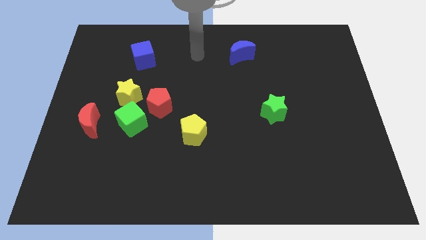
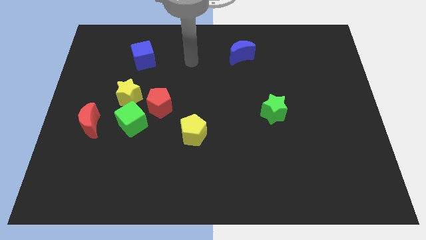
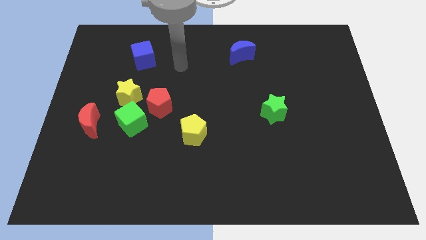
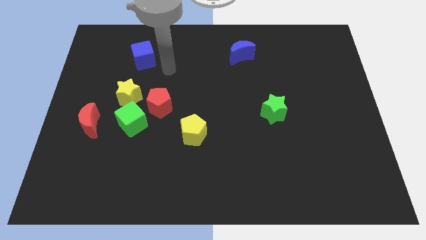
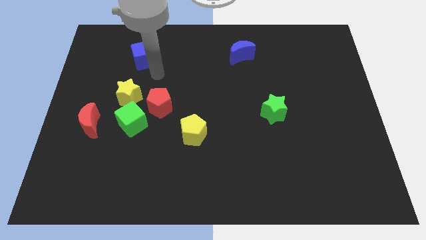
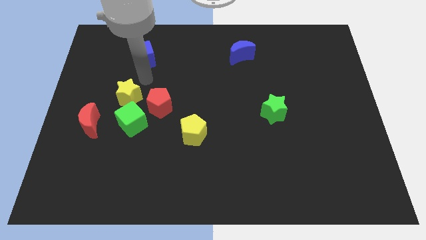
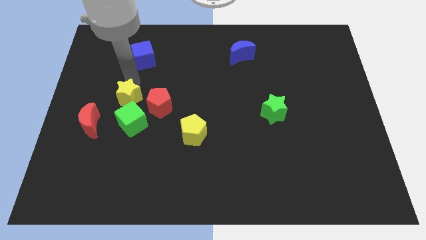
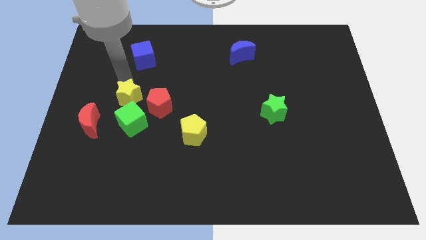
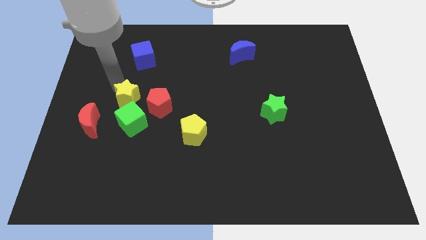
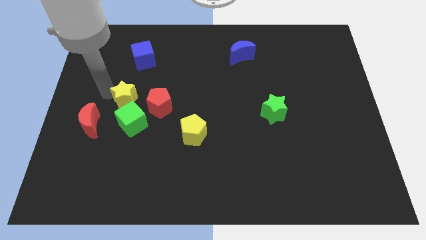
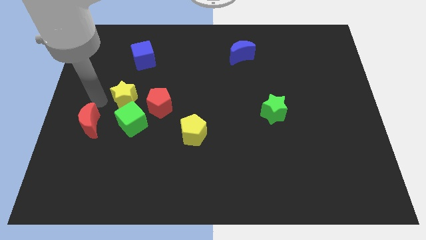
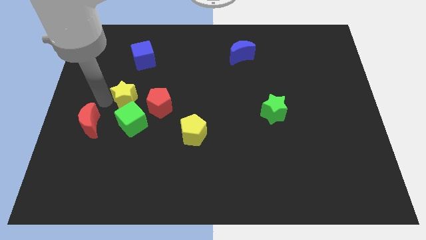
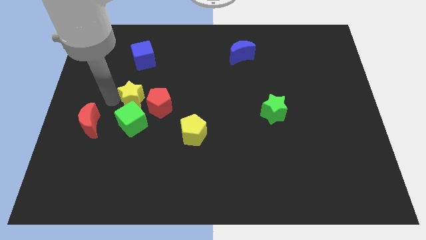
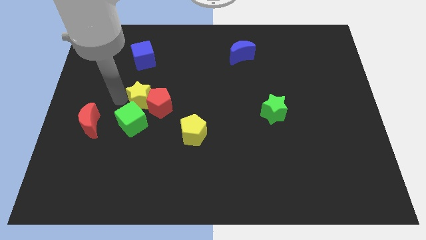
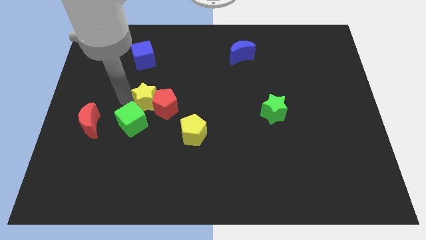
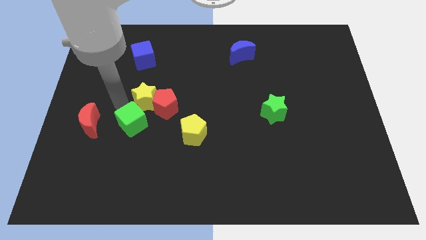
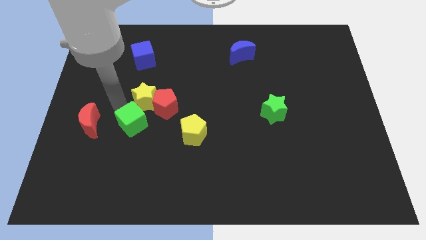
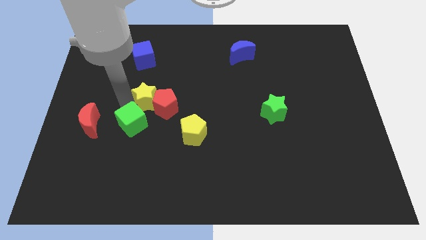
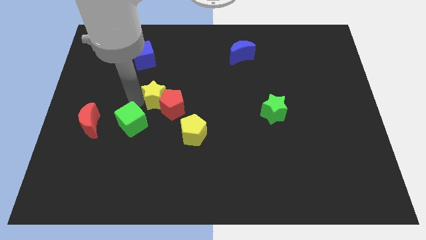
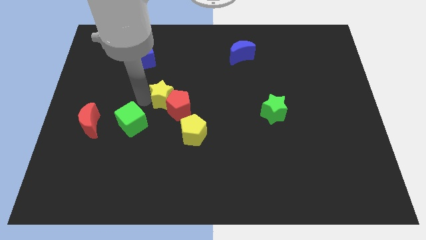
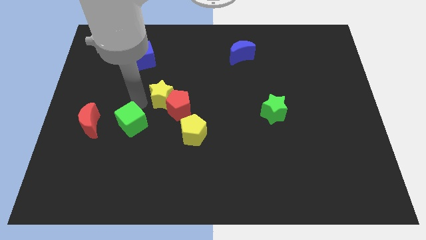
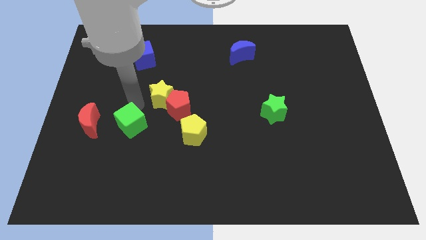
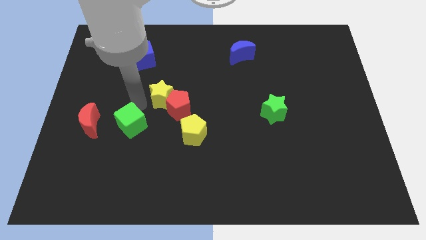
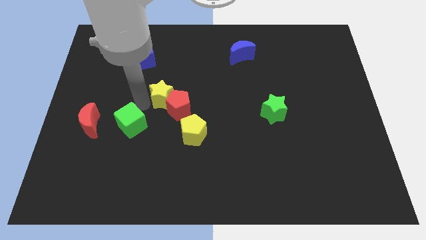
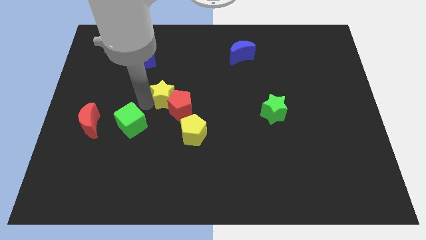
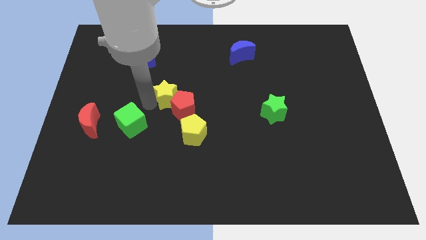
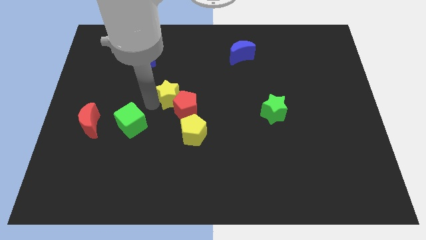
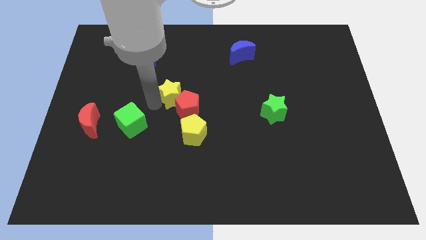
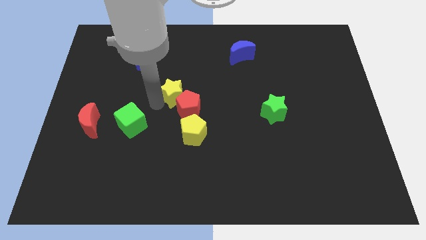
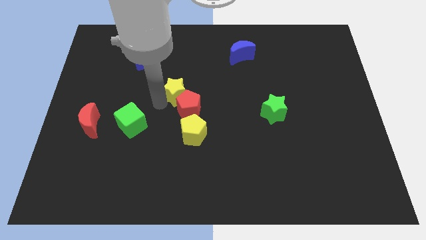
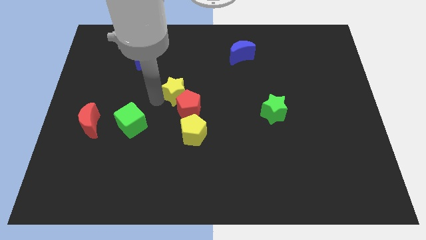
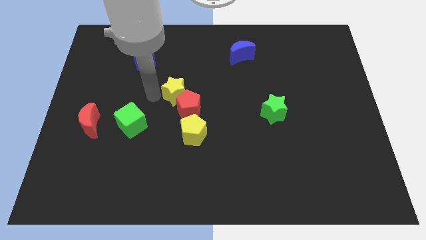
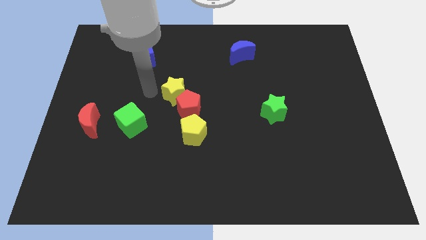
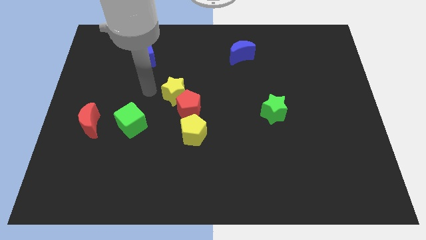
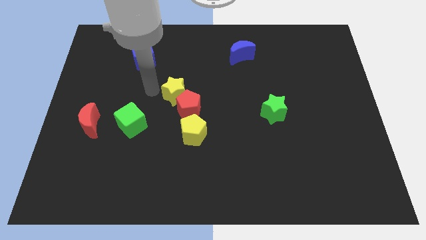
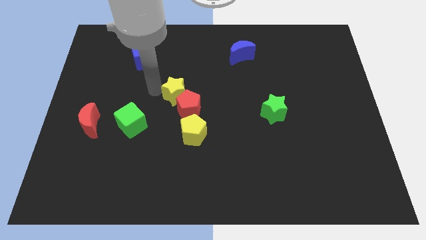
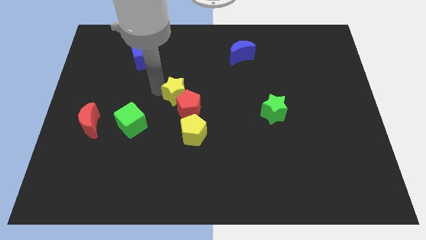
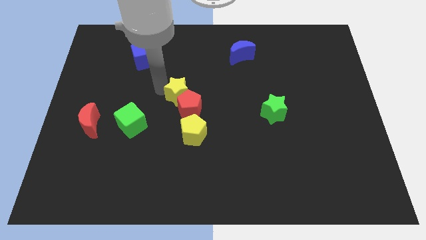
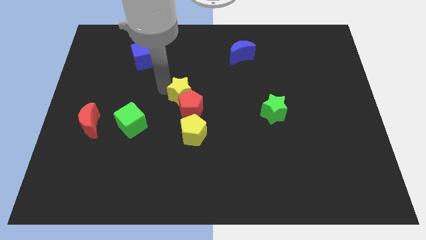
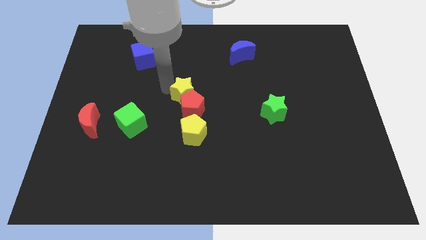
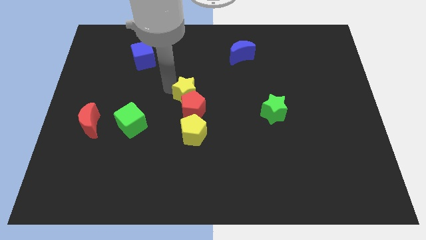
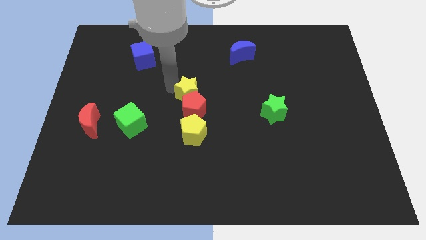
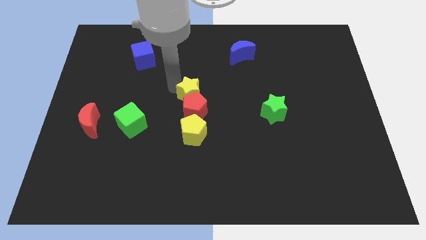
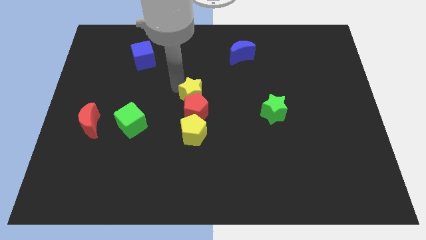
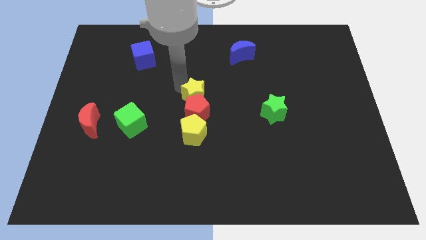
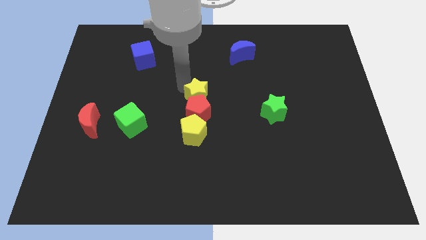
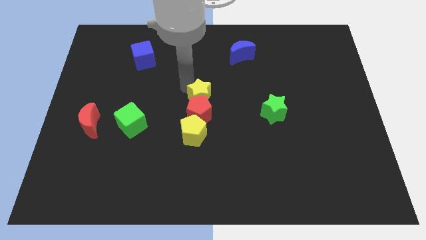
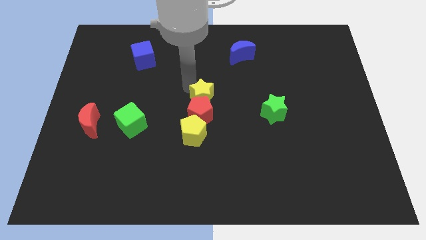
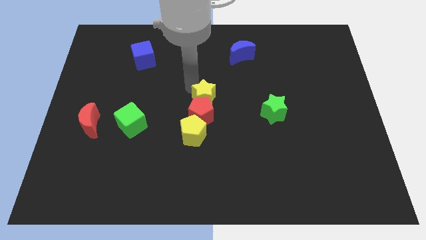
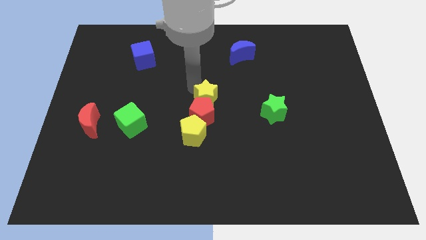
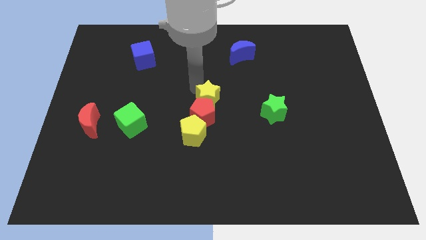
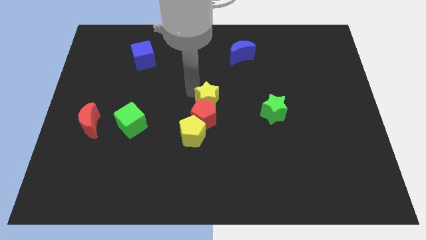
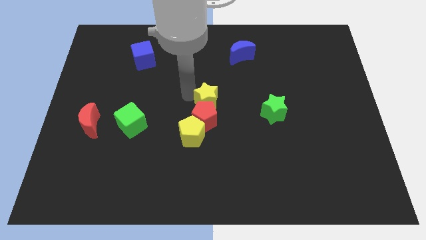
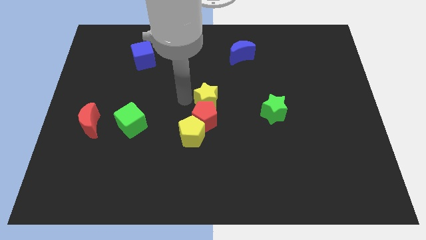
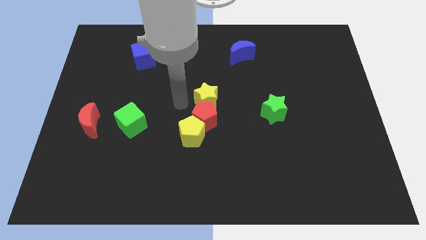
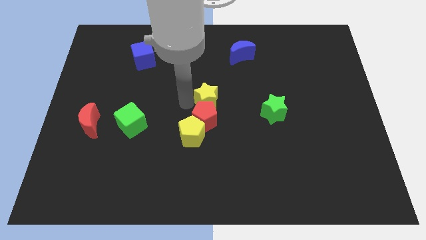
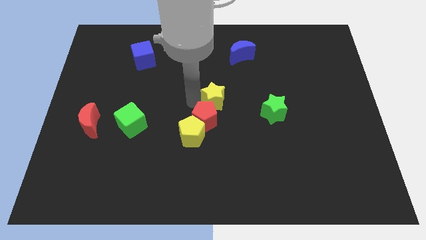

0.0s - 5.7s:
slide the yellow star right

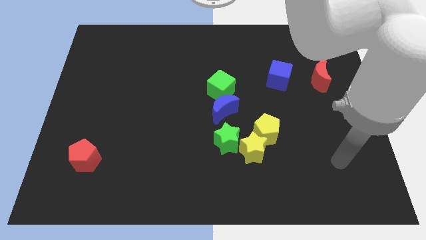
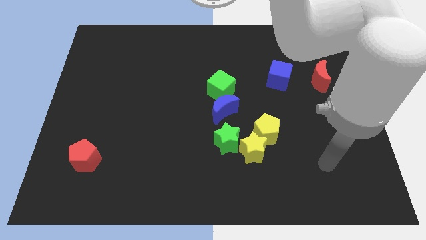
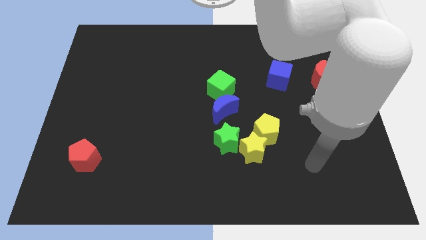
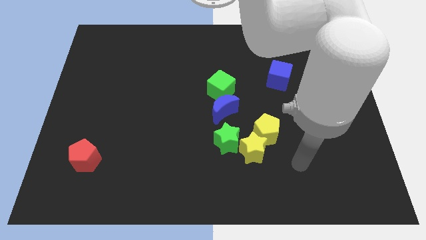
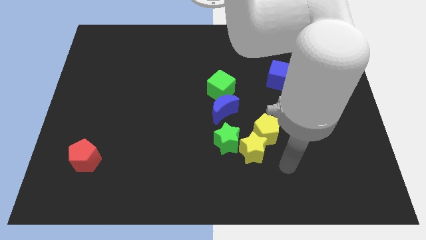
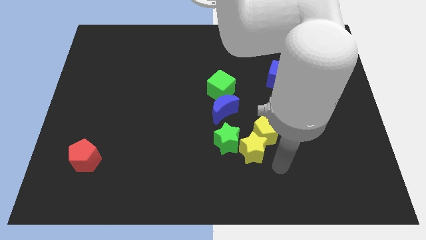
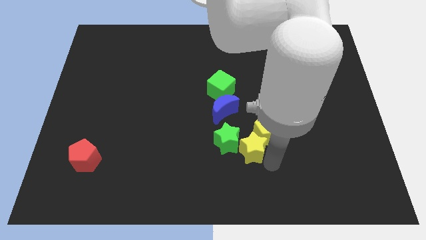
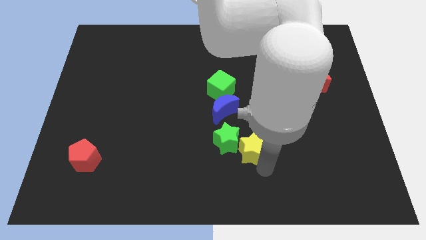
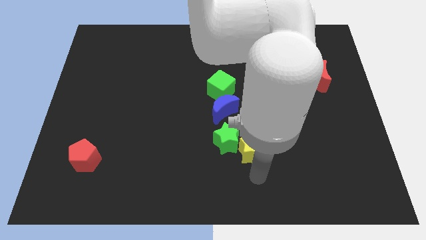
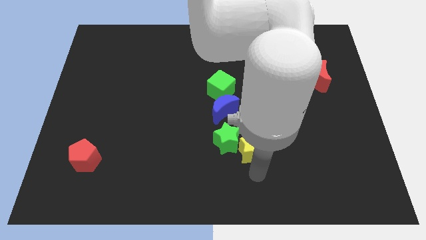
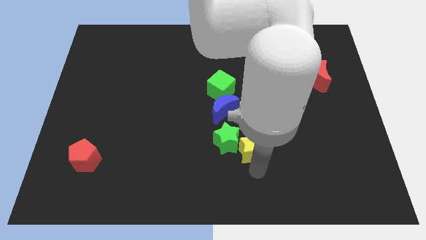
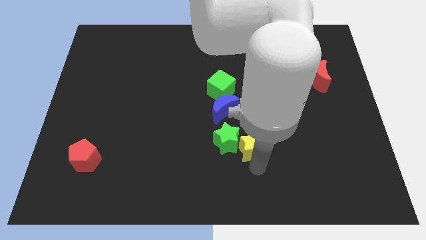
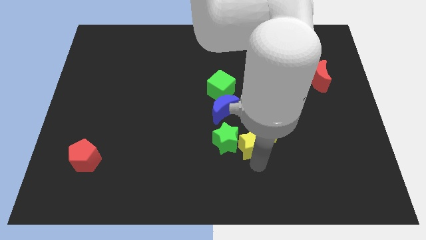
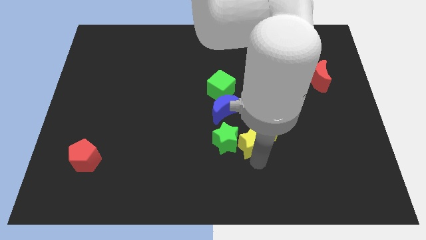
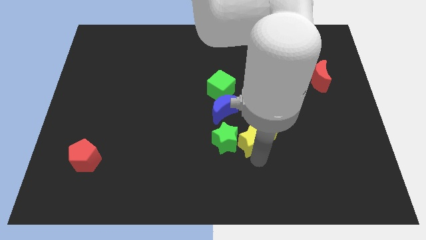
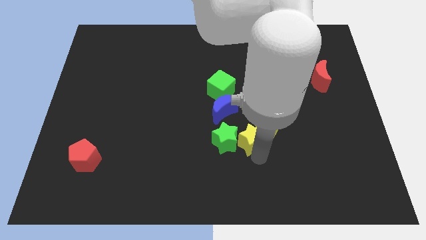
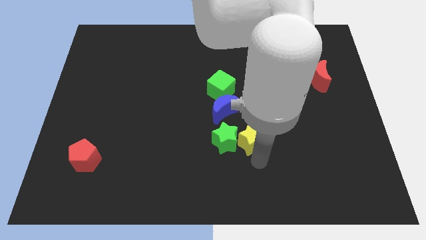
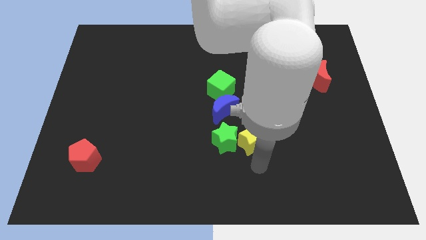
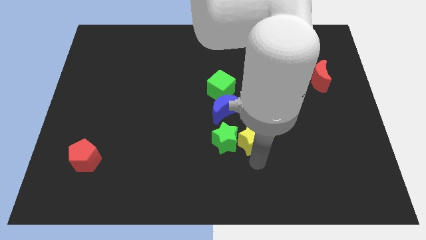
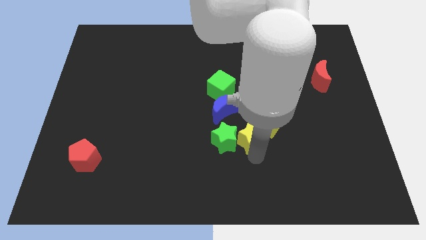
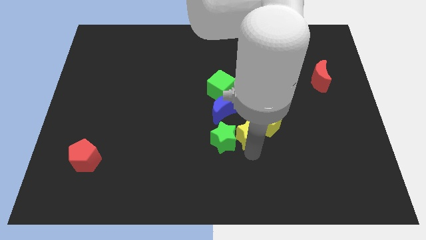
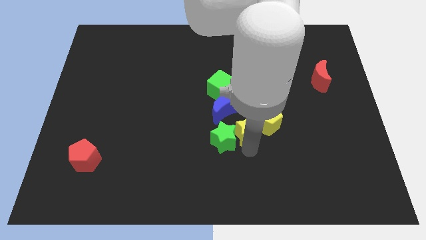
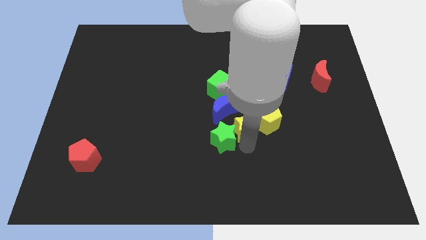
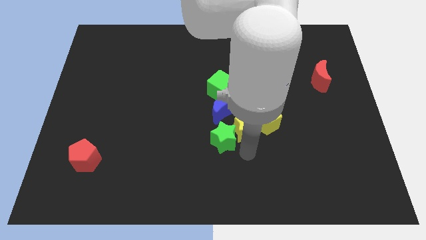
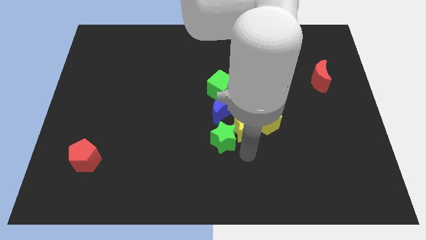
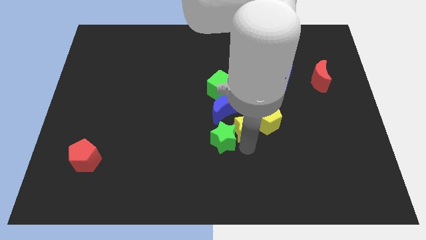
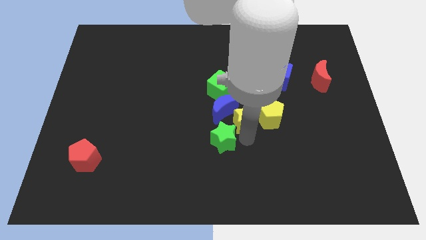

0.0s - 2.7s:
move the yellow star a bit up

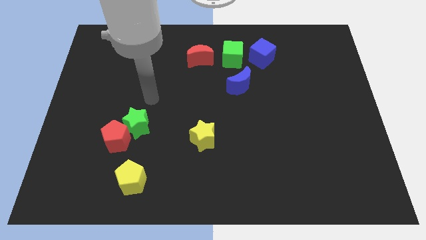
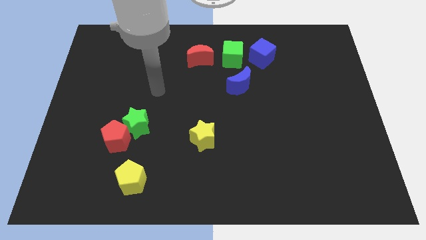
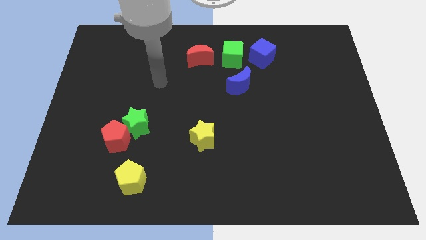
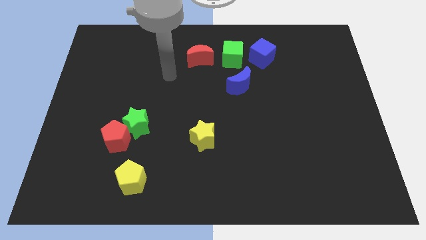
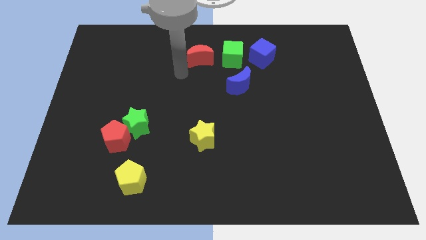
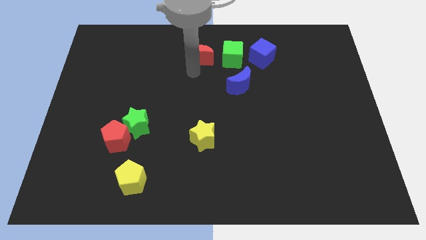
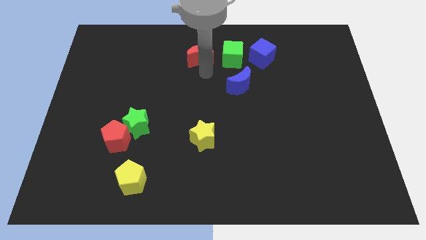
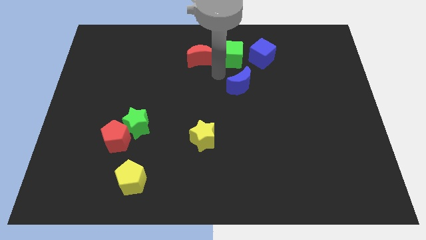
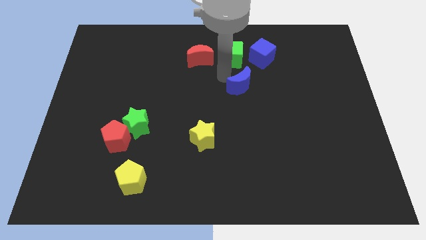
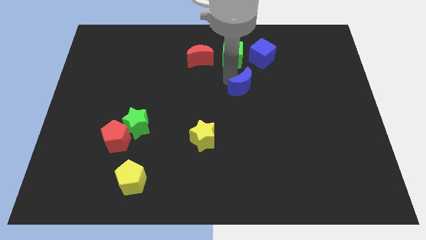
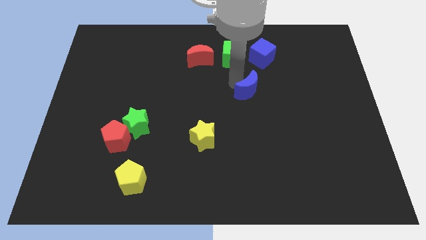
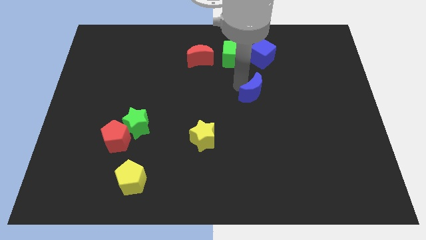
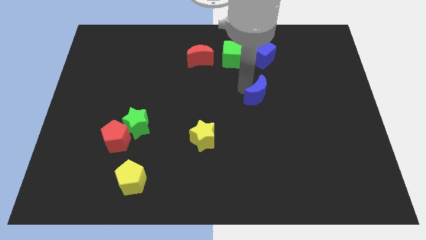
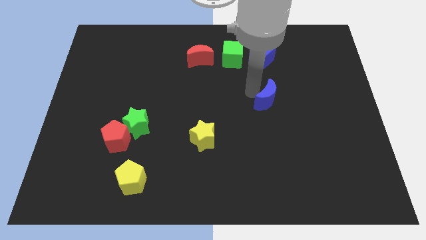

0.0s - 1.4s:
slightly slide the blue moon diagonally down and to the right
